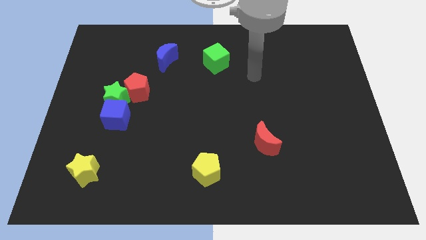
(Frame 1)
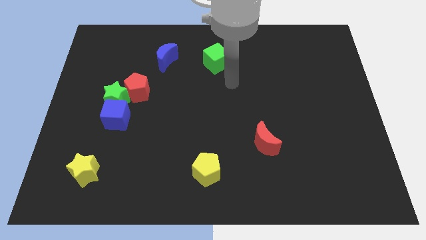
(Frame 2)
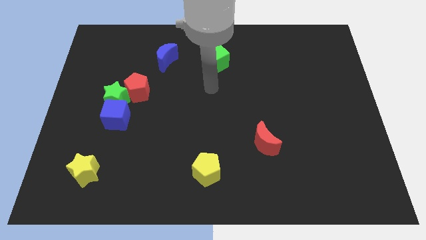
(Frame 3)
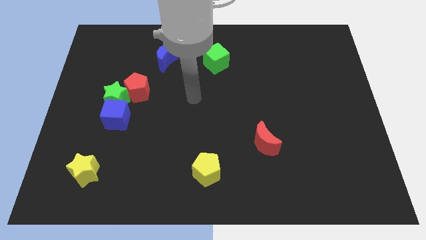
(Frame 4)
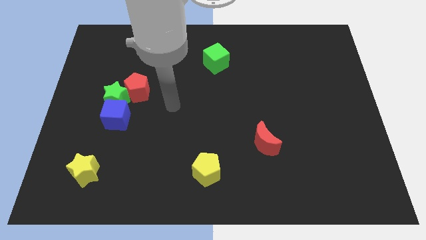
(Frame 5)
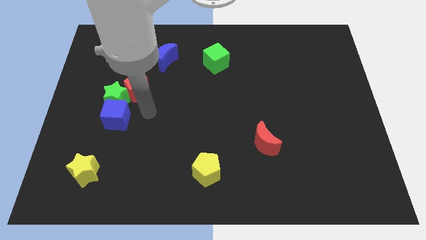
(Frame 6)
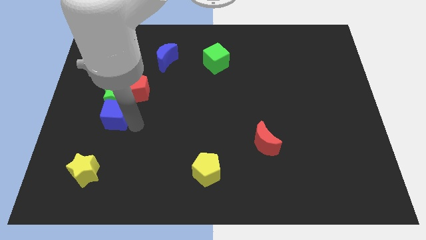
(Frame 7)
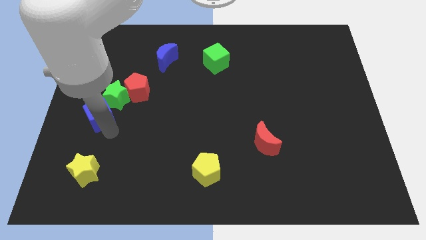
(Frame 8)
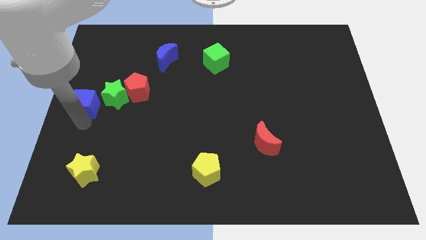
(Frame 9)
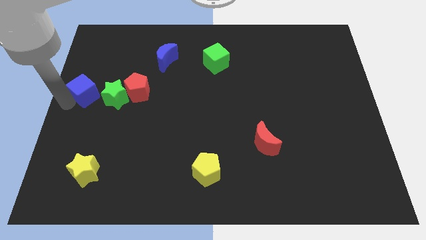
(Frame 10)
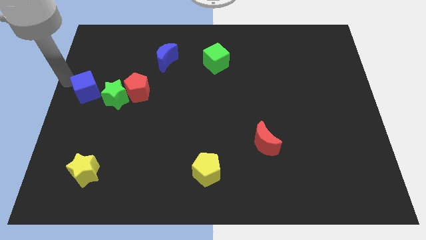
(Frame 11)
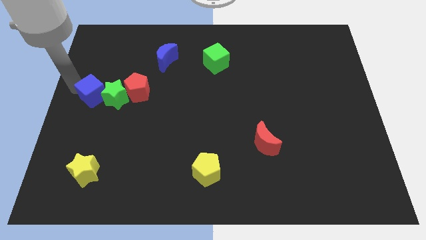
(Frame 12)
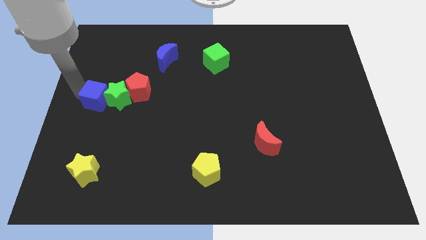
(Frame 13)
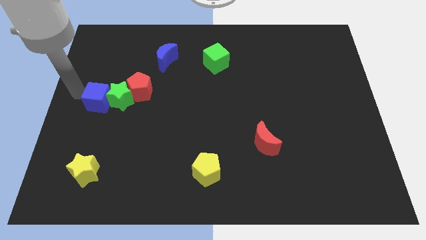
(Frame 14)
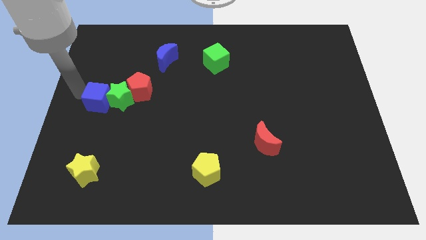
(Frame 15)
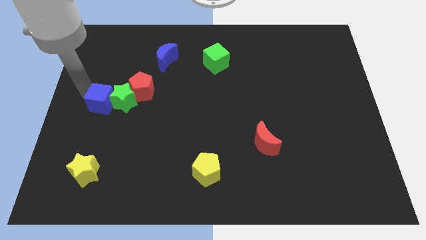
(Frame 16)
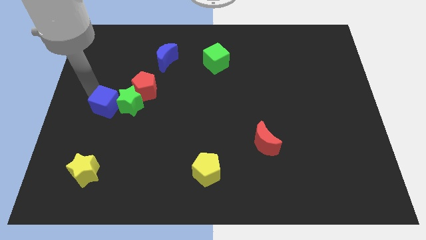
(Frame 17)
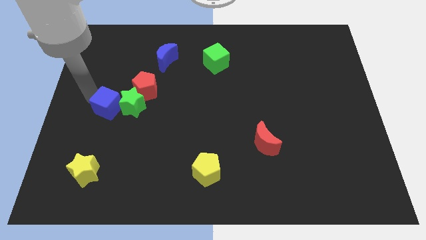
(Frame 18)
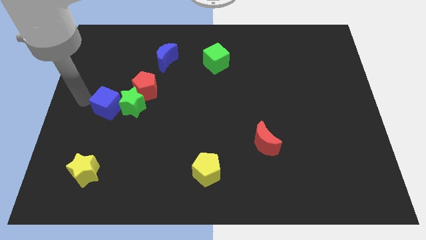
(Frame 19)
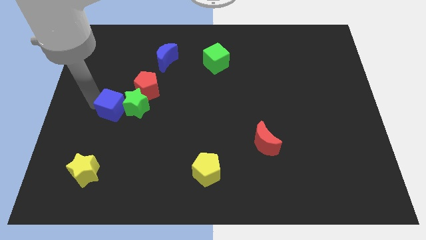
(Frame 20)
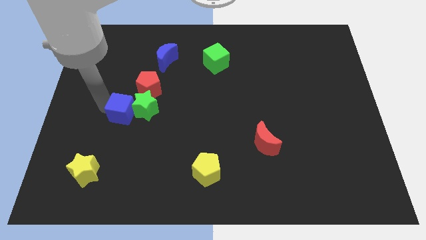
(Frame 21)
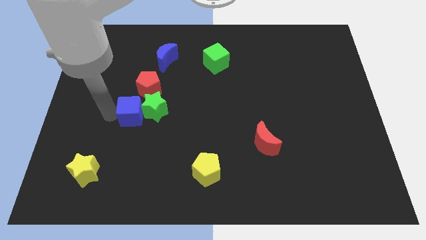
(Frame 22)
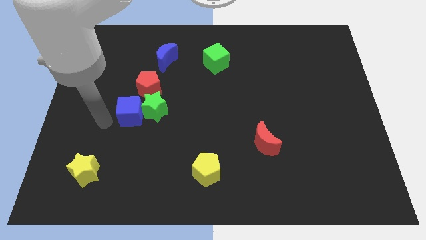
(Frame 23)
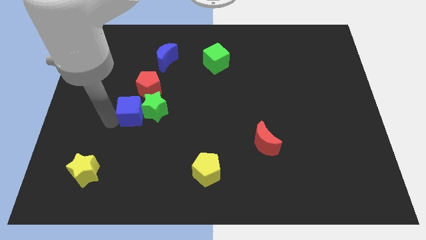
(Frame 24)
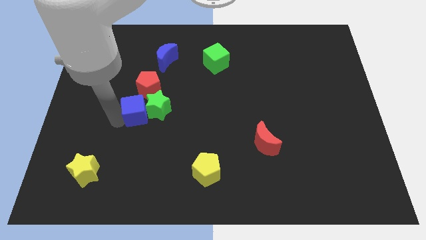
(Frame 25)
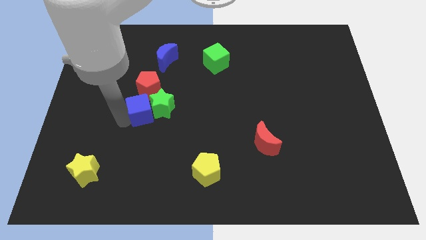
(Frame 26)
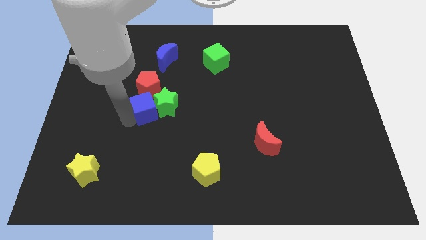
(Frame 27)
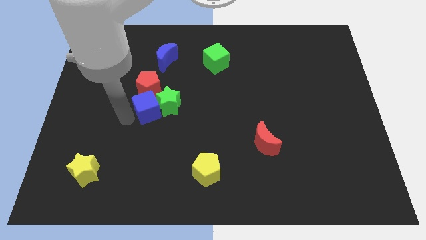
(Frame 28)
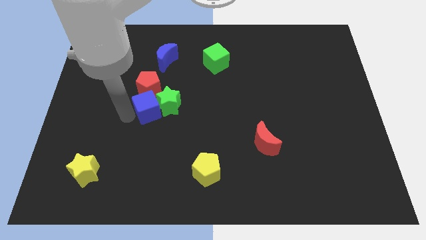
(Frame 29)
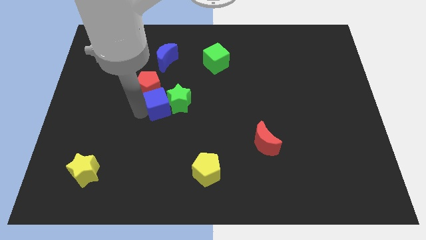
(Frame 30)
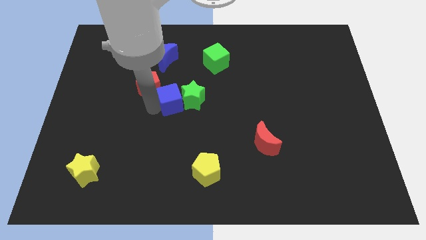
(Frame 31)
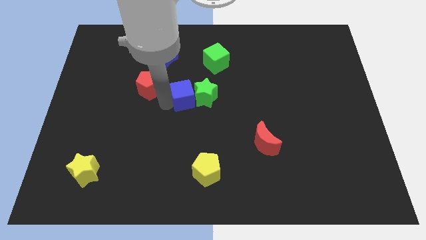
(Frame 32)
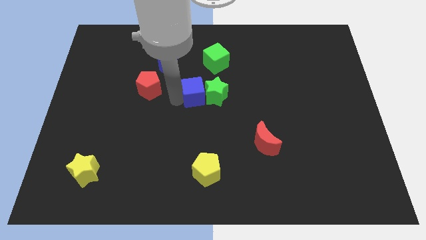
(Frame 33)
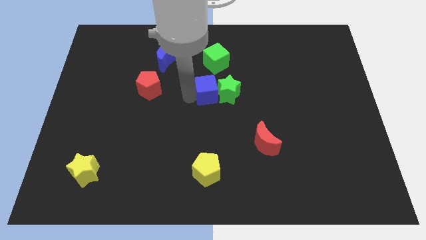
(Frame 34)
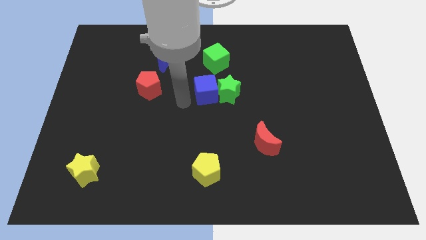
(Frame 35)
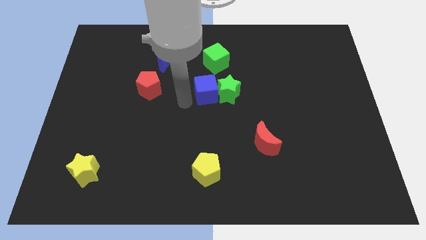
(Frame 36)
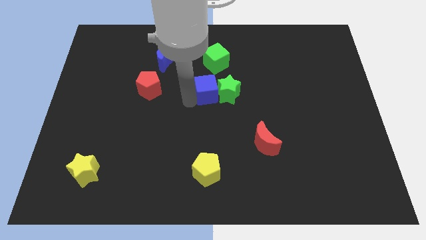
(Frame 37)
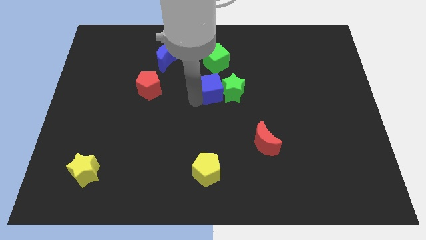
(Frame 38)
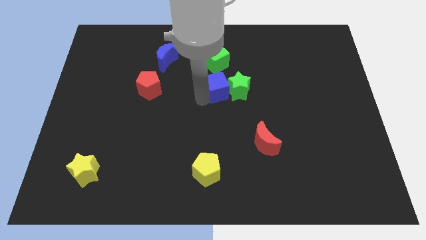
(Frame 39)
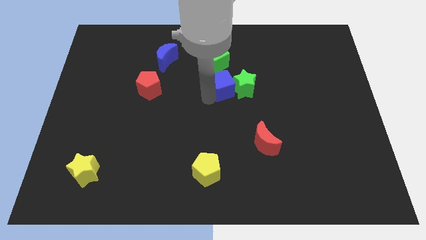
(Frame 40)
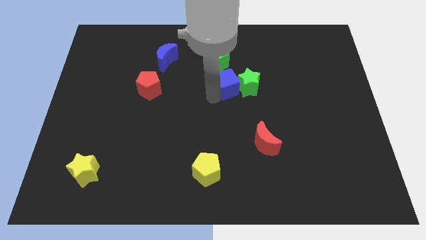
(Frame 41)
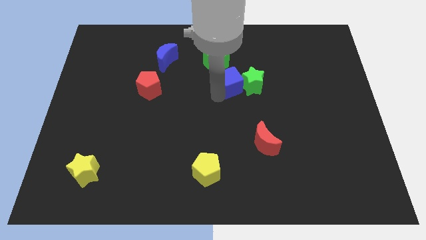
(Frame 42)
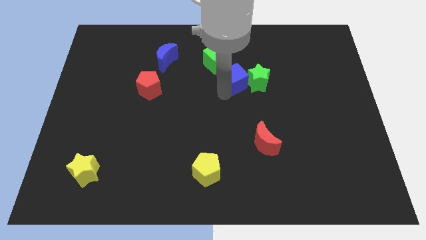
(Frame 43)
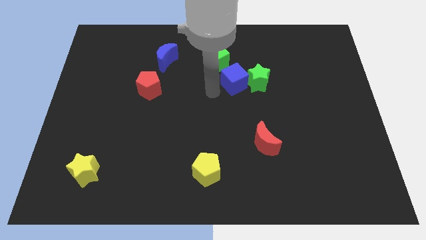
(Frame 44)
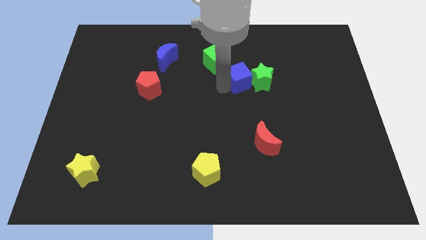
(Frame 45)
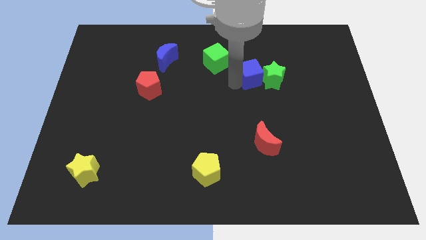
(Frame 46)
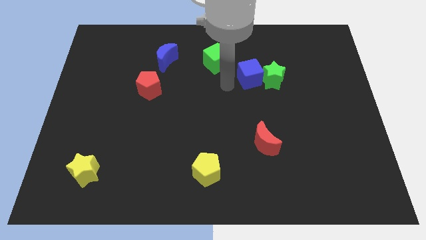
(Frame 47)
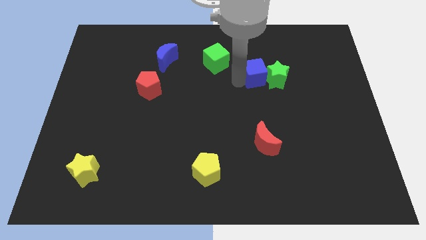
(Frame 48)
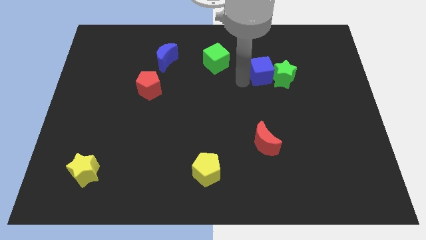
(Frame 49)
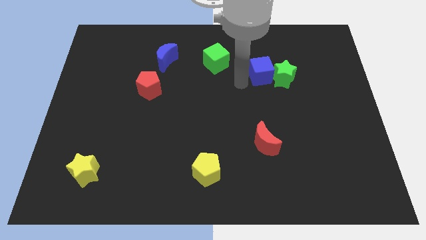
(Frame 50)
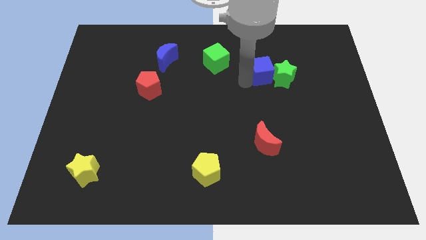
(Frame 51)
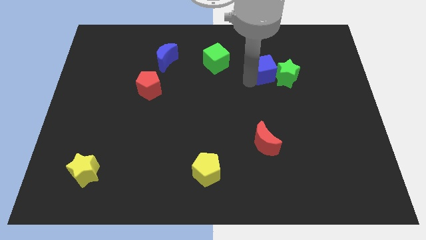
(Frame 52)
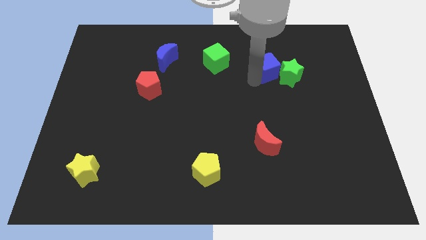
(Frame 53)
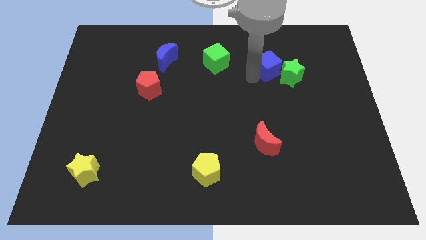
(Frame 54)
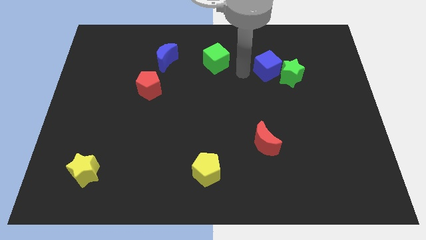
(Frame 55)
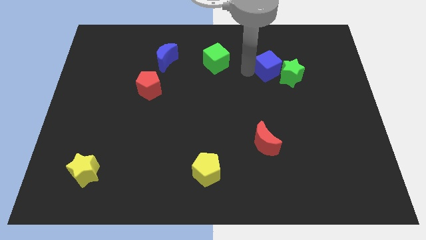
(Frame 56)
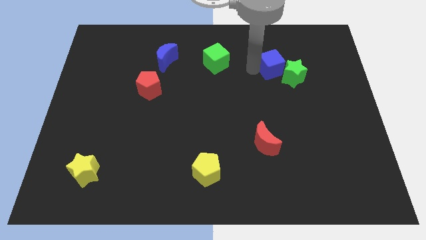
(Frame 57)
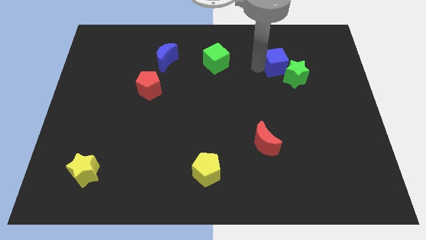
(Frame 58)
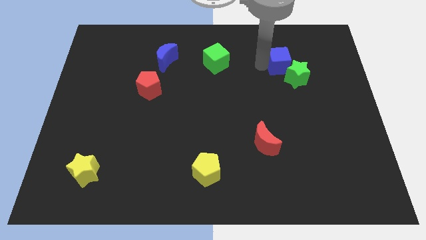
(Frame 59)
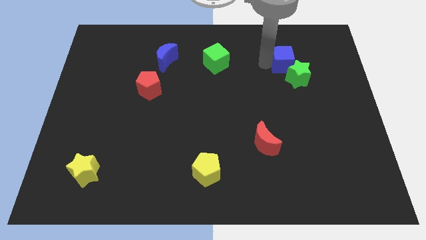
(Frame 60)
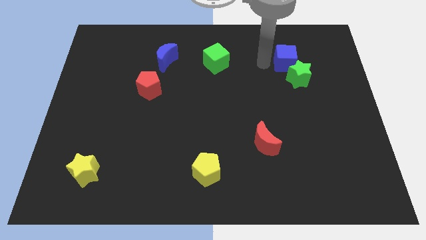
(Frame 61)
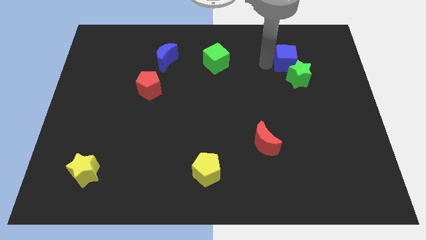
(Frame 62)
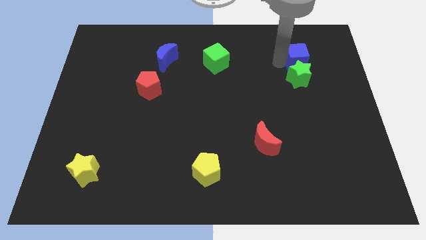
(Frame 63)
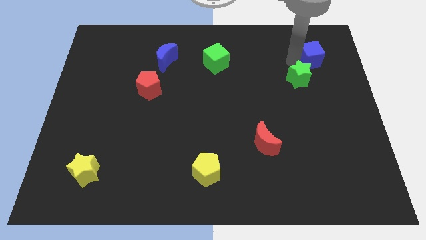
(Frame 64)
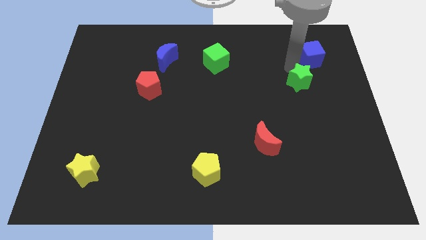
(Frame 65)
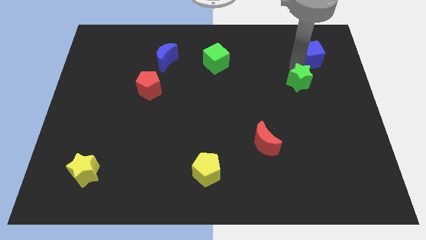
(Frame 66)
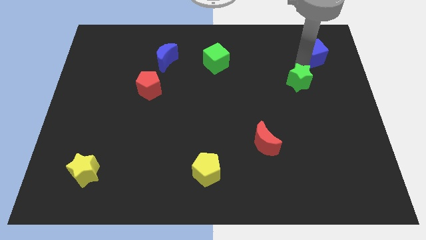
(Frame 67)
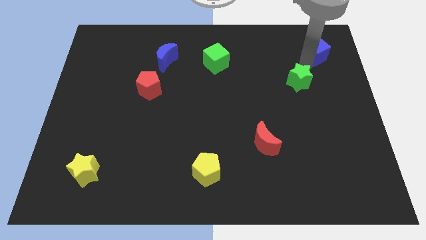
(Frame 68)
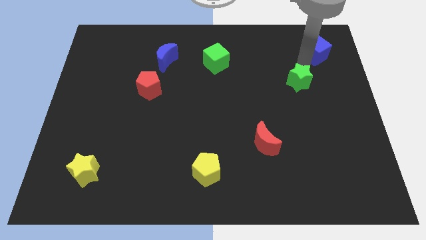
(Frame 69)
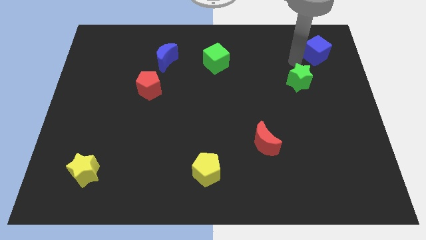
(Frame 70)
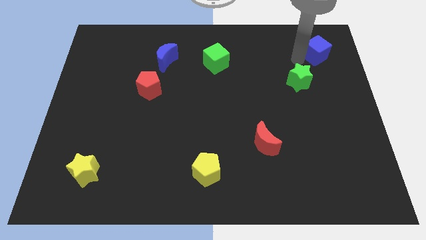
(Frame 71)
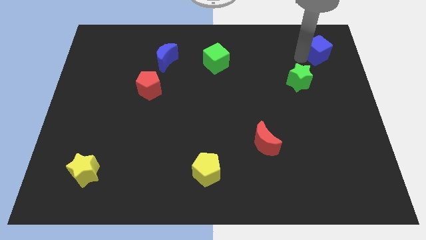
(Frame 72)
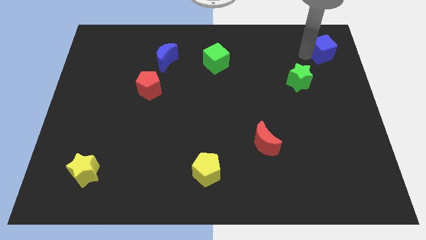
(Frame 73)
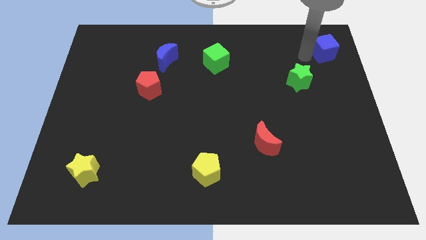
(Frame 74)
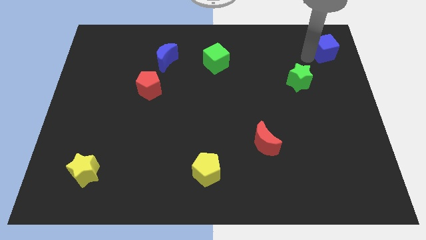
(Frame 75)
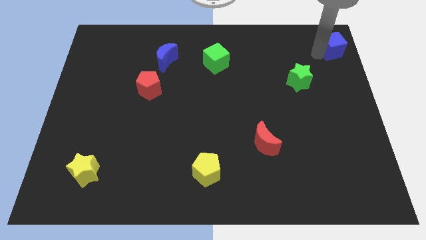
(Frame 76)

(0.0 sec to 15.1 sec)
put the blue cube to the top right
